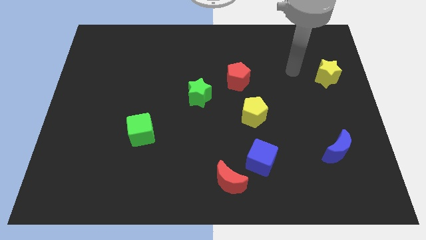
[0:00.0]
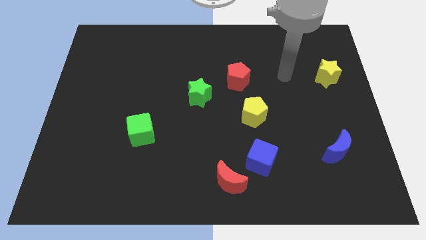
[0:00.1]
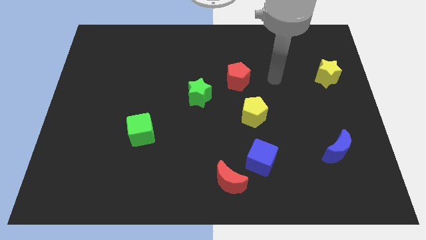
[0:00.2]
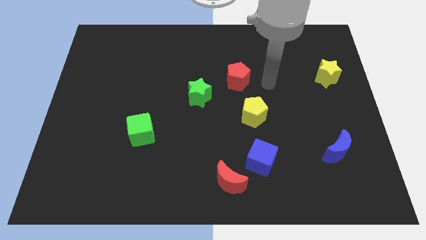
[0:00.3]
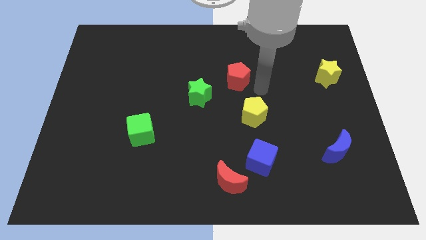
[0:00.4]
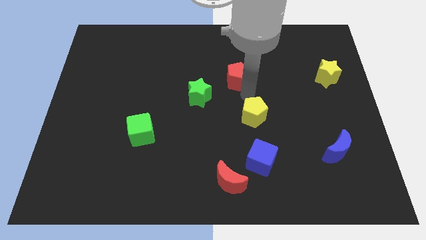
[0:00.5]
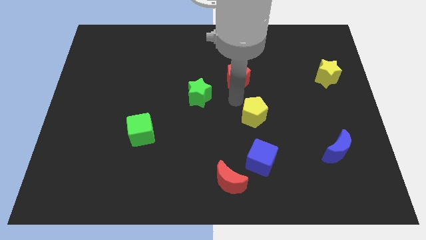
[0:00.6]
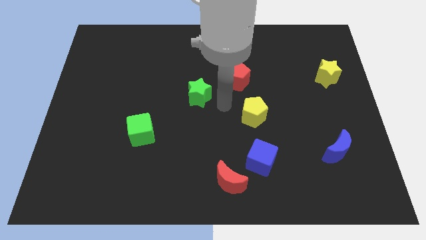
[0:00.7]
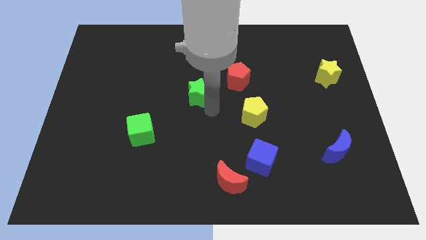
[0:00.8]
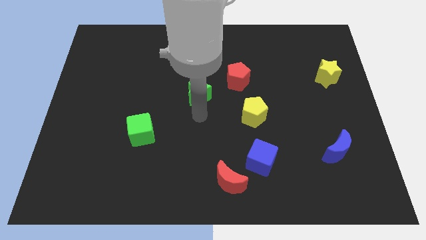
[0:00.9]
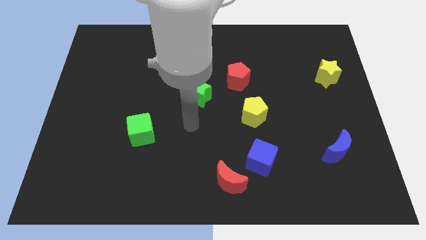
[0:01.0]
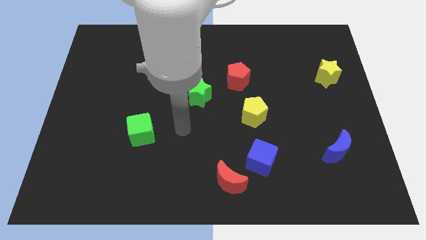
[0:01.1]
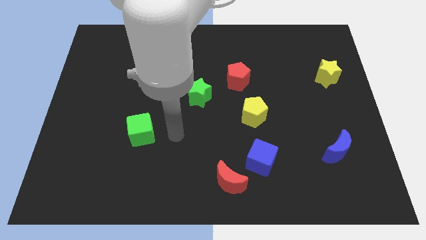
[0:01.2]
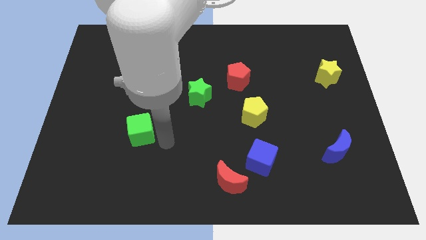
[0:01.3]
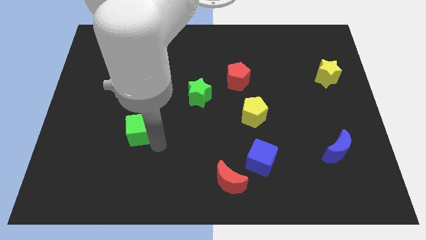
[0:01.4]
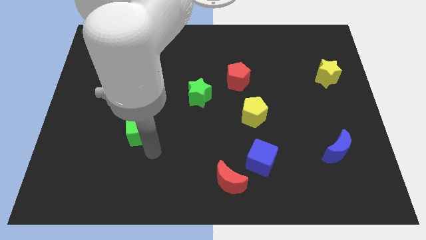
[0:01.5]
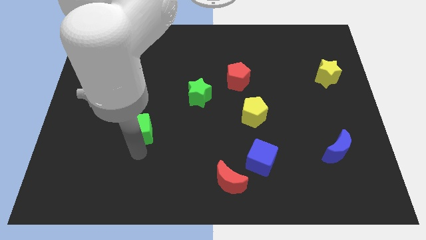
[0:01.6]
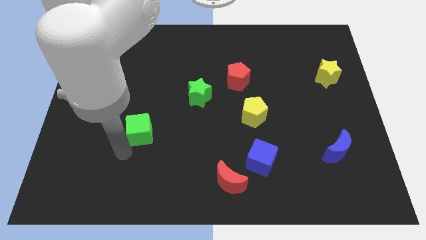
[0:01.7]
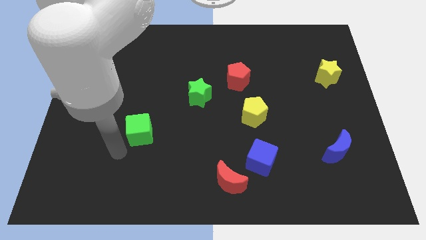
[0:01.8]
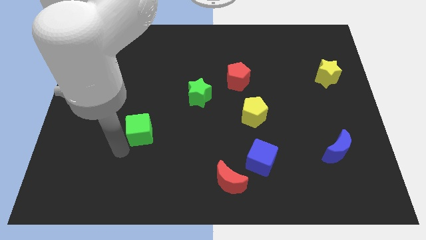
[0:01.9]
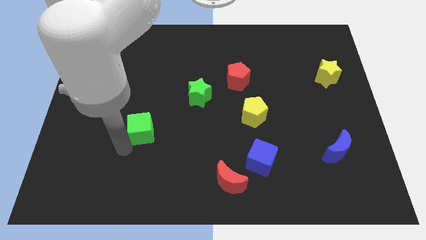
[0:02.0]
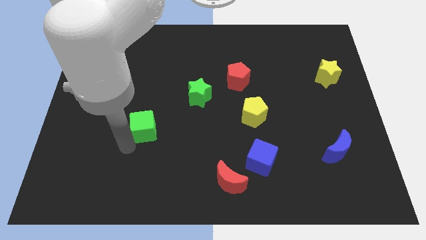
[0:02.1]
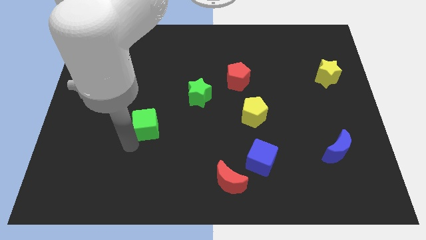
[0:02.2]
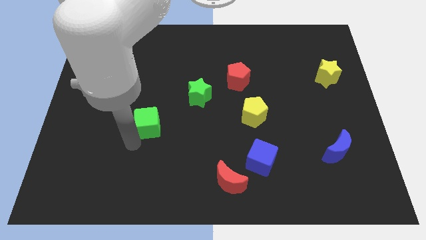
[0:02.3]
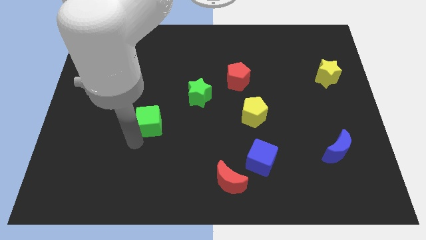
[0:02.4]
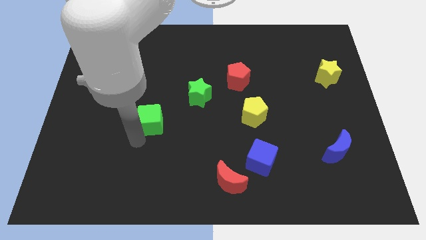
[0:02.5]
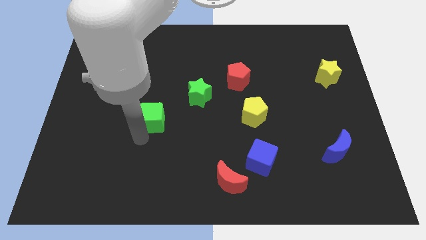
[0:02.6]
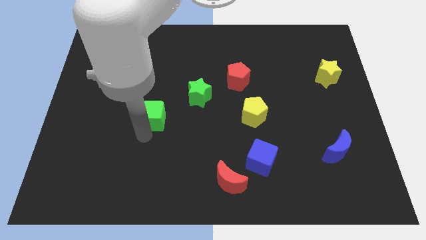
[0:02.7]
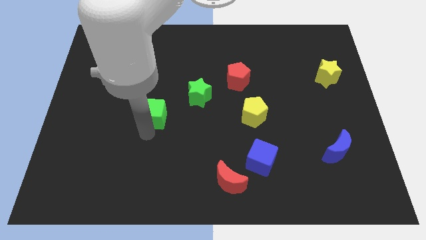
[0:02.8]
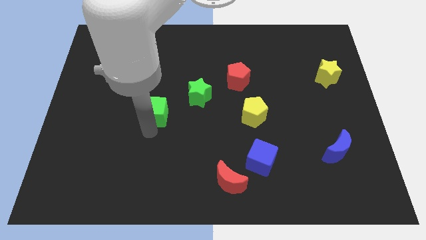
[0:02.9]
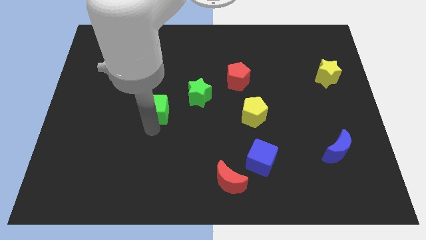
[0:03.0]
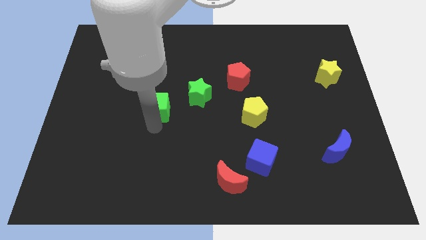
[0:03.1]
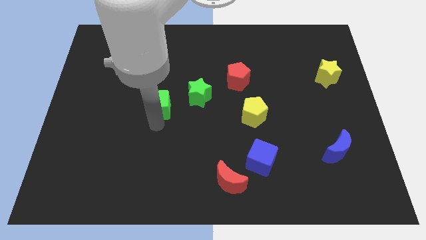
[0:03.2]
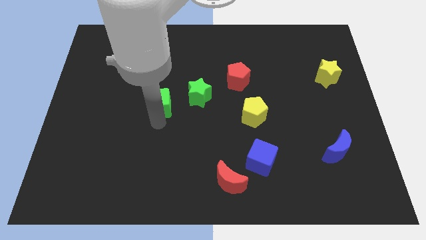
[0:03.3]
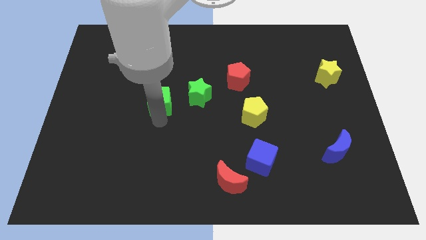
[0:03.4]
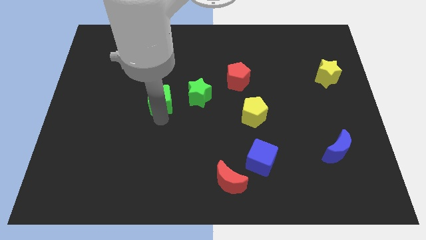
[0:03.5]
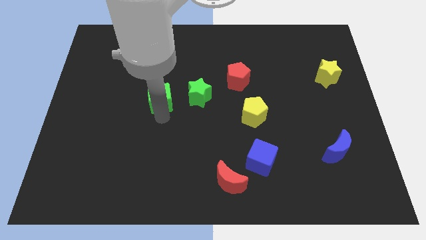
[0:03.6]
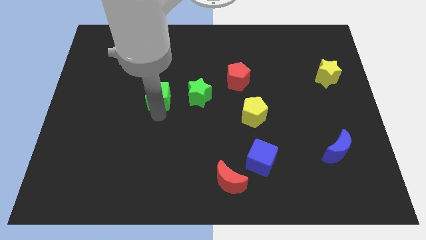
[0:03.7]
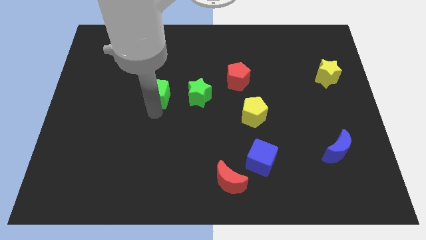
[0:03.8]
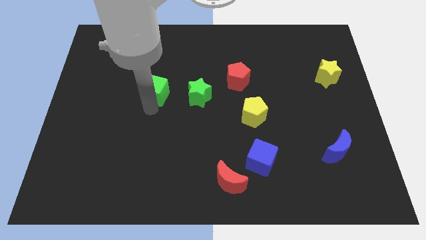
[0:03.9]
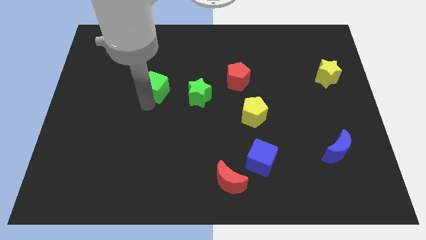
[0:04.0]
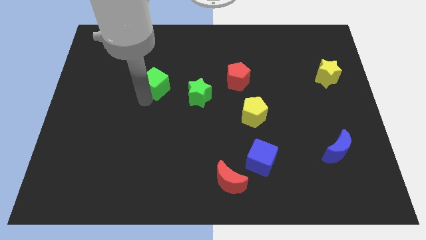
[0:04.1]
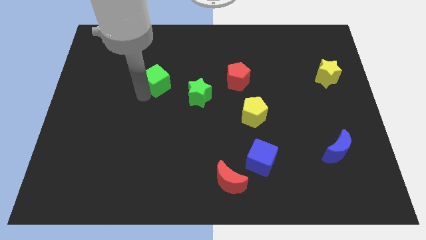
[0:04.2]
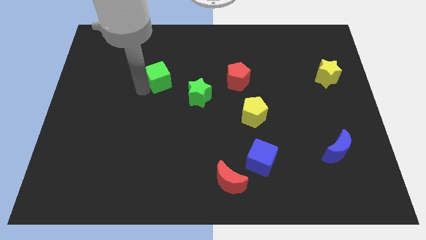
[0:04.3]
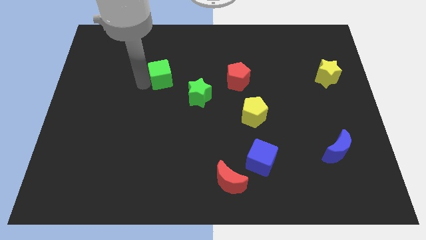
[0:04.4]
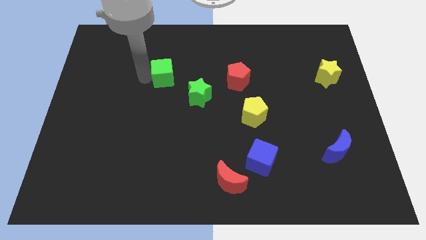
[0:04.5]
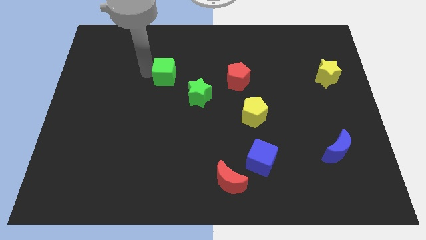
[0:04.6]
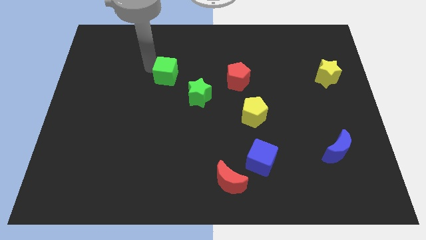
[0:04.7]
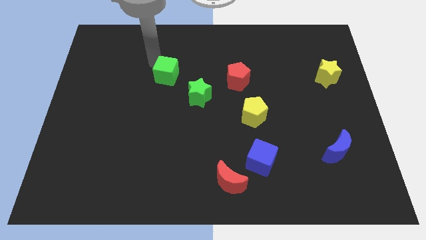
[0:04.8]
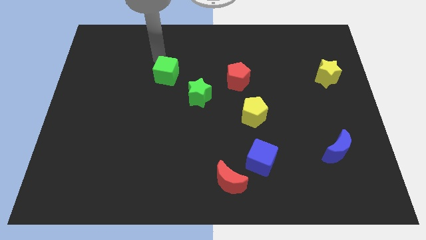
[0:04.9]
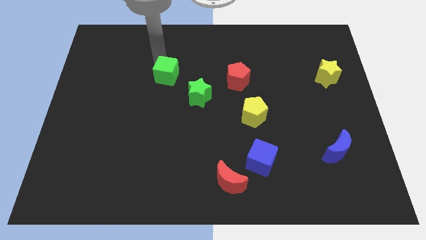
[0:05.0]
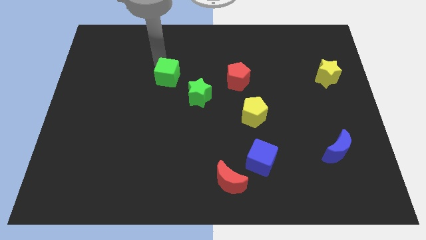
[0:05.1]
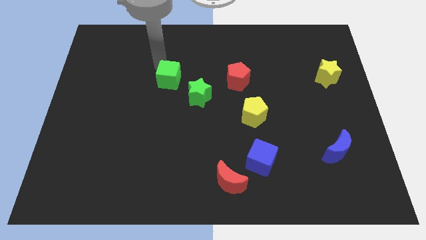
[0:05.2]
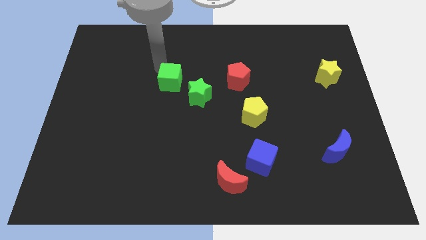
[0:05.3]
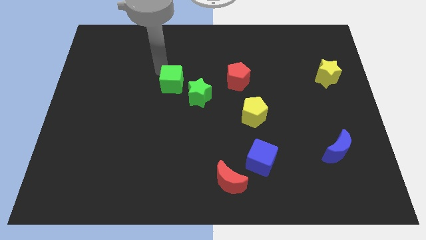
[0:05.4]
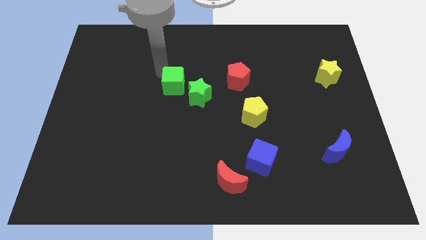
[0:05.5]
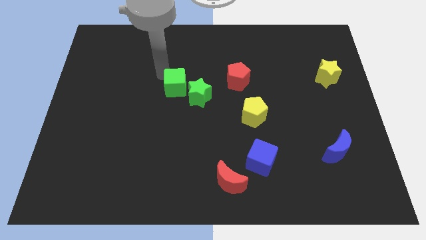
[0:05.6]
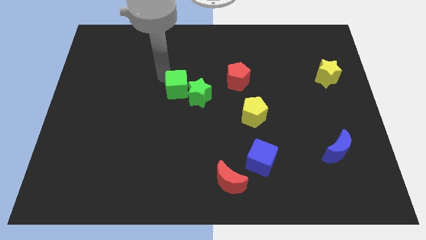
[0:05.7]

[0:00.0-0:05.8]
slide the green cube next to the green star

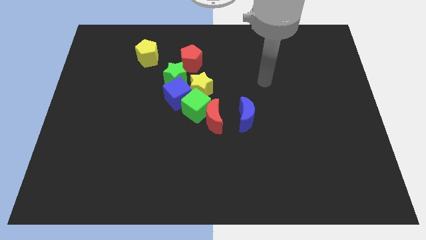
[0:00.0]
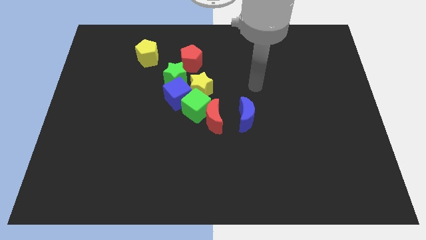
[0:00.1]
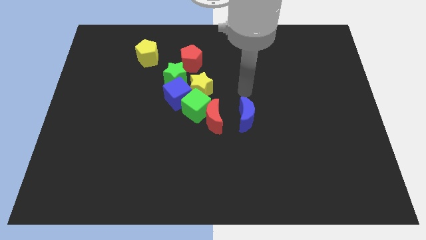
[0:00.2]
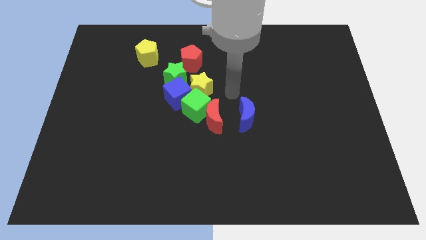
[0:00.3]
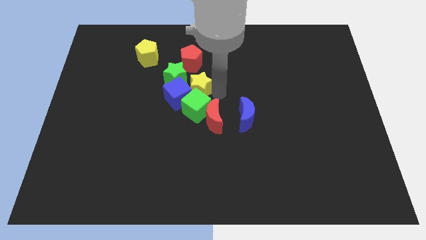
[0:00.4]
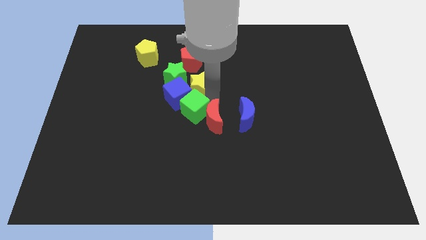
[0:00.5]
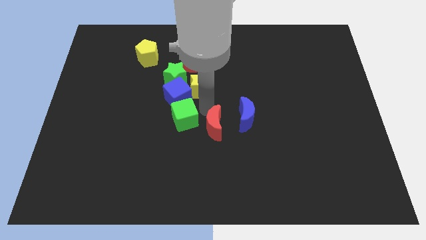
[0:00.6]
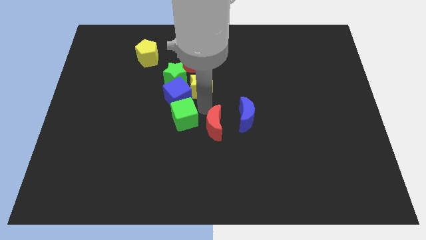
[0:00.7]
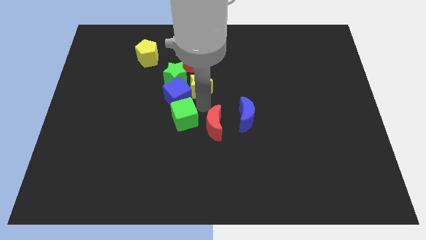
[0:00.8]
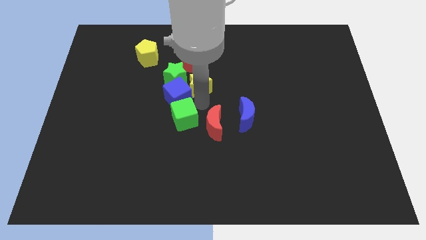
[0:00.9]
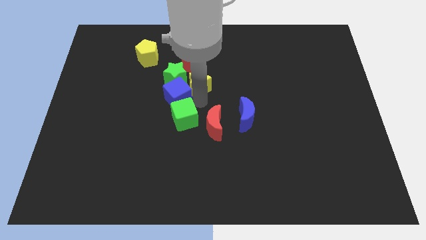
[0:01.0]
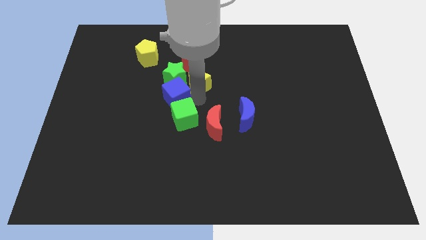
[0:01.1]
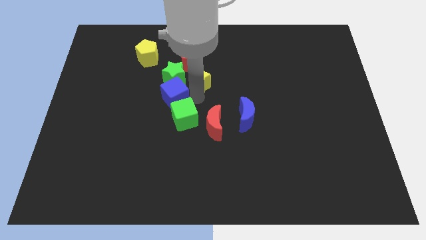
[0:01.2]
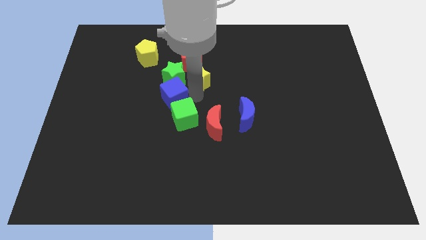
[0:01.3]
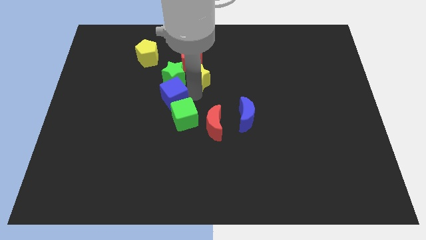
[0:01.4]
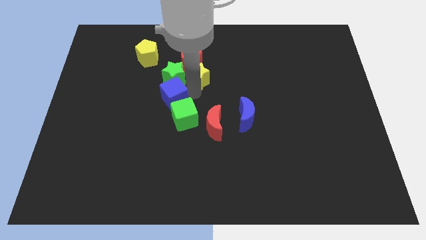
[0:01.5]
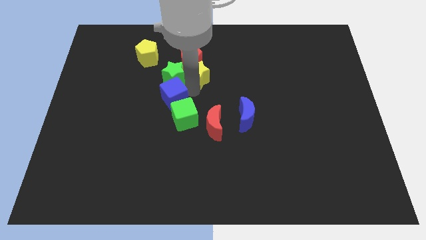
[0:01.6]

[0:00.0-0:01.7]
move the yellow star close to the red pentagon

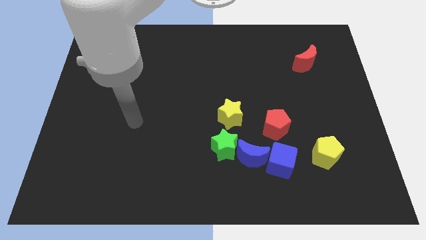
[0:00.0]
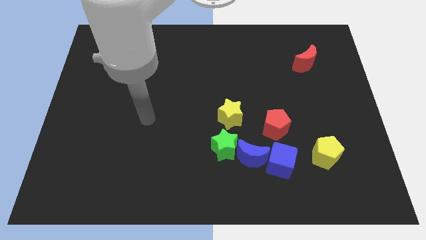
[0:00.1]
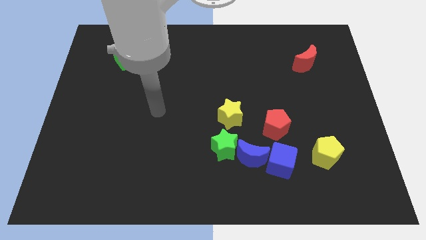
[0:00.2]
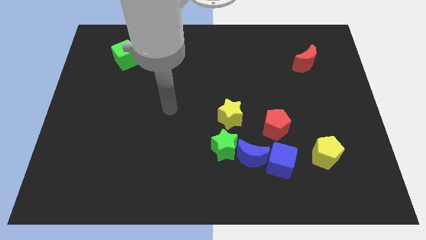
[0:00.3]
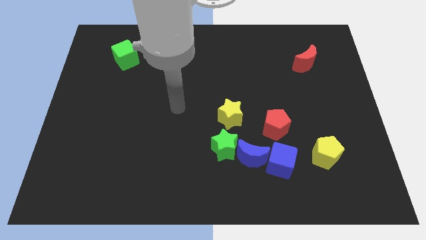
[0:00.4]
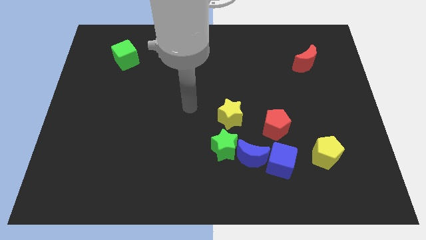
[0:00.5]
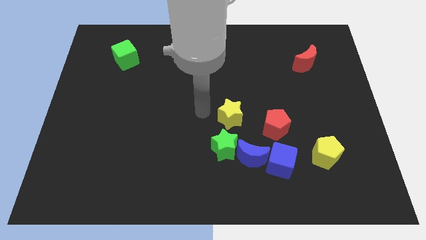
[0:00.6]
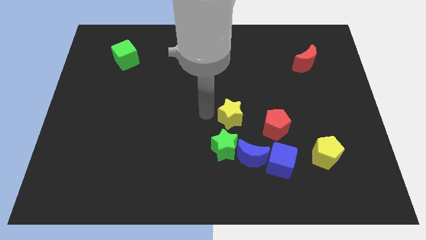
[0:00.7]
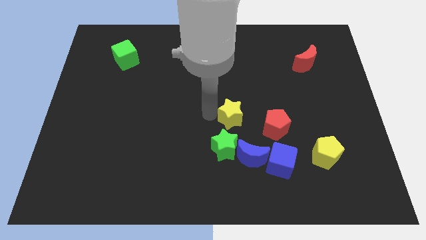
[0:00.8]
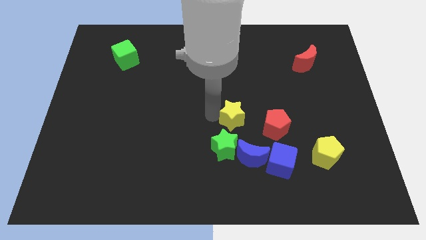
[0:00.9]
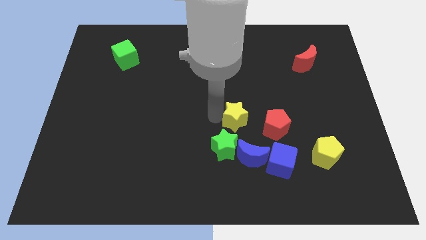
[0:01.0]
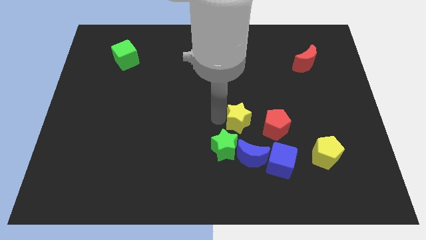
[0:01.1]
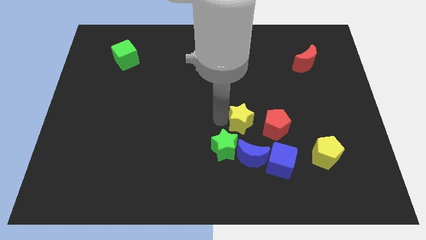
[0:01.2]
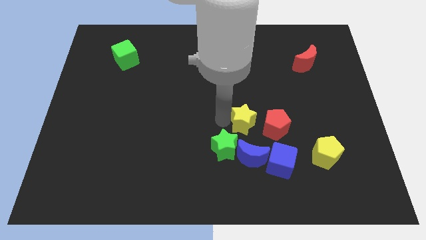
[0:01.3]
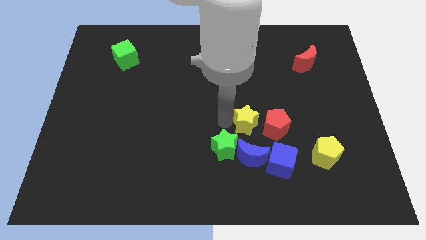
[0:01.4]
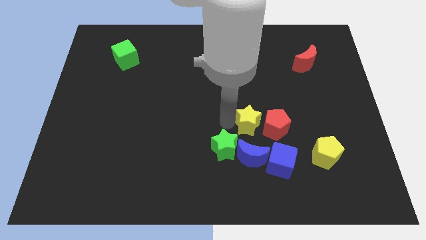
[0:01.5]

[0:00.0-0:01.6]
slide the yellow star towards the red pentagon
